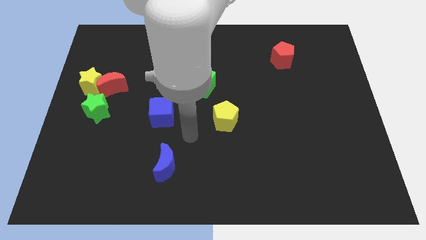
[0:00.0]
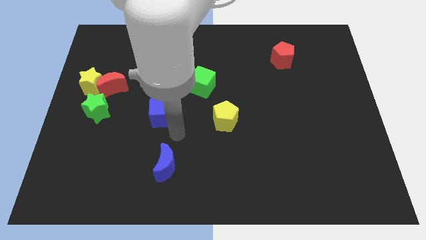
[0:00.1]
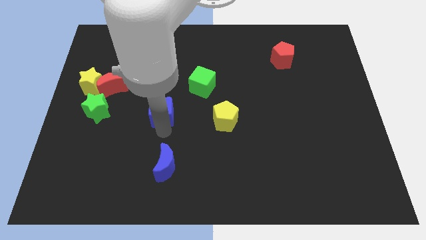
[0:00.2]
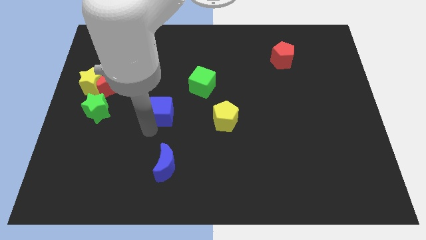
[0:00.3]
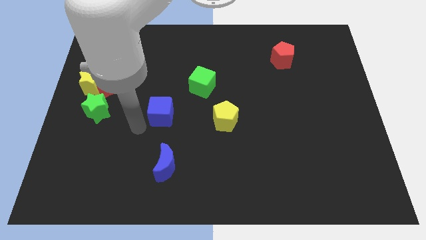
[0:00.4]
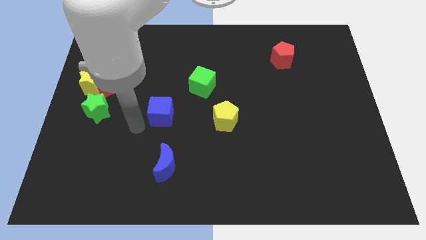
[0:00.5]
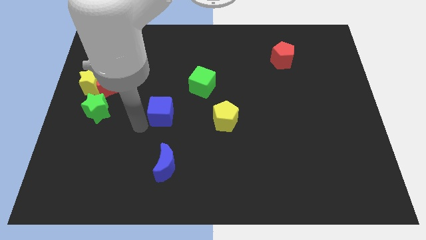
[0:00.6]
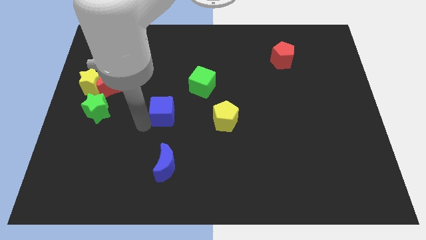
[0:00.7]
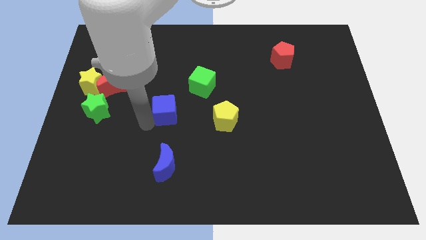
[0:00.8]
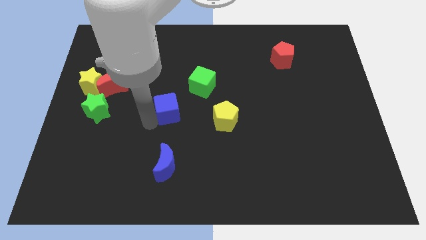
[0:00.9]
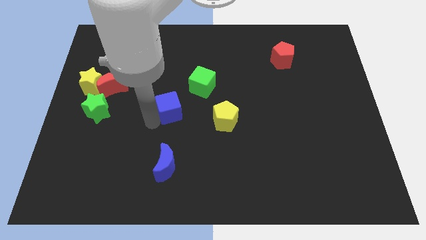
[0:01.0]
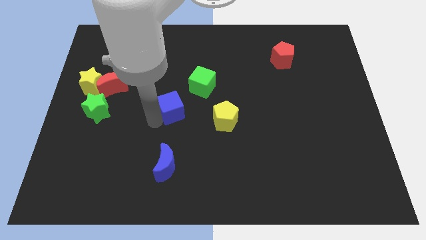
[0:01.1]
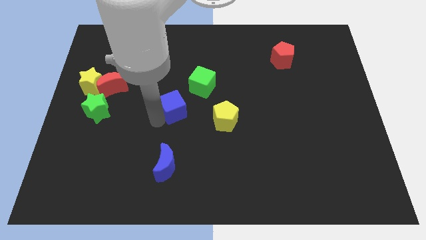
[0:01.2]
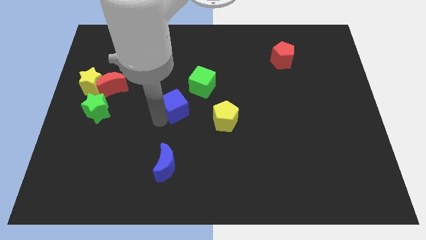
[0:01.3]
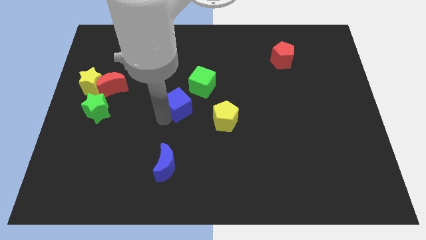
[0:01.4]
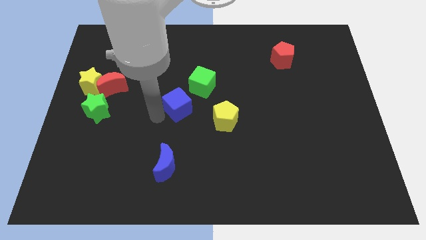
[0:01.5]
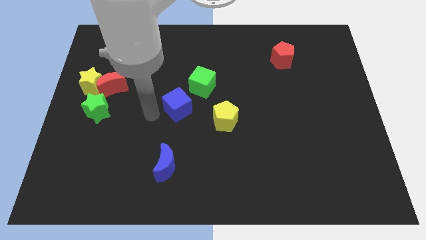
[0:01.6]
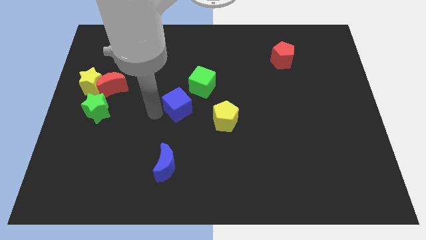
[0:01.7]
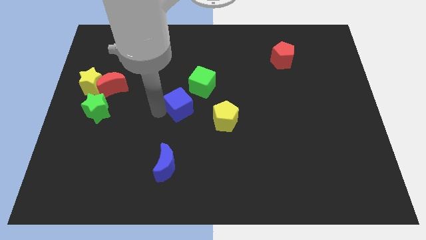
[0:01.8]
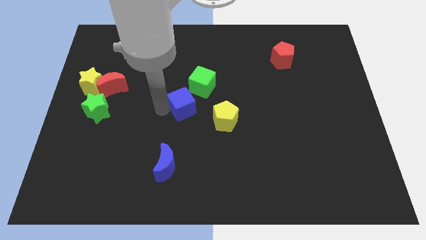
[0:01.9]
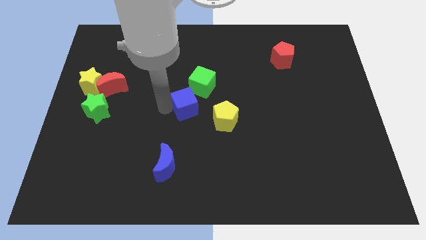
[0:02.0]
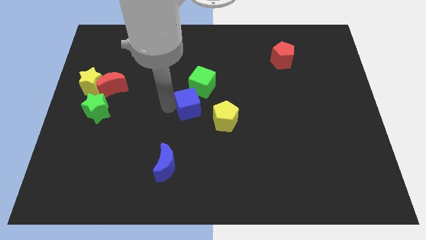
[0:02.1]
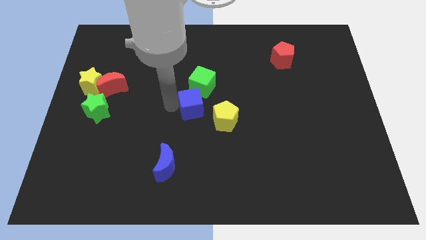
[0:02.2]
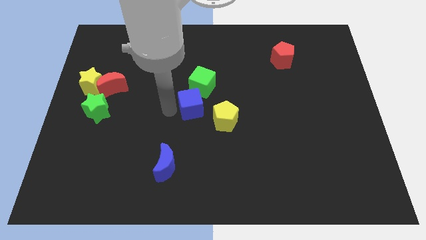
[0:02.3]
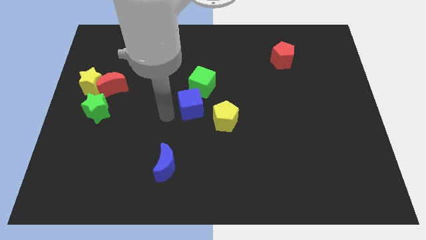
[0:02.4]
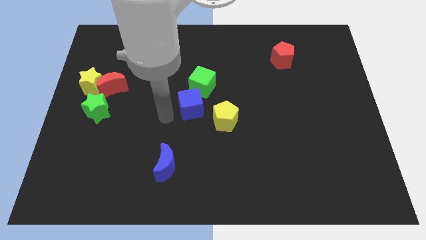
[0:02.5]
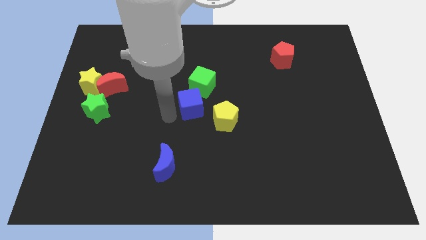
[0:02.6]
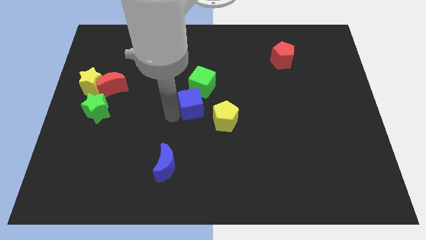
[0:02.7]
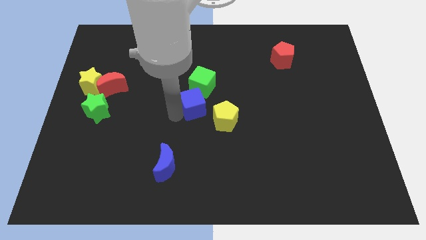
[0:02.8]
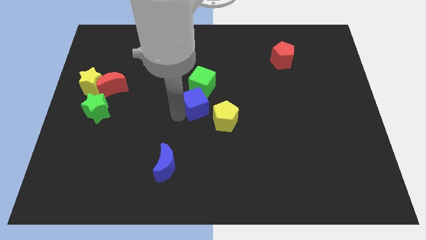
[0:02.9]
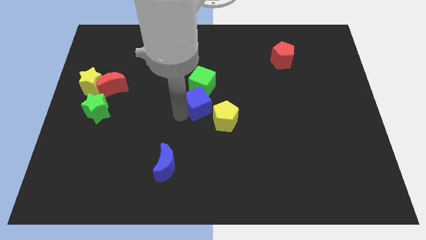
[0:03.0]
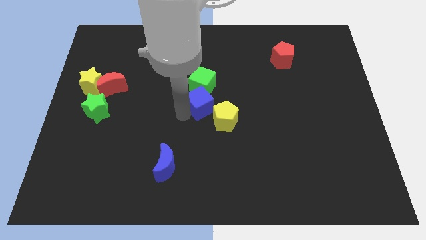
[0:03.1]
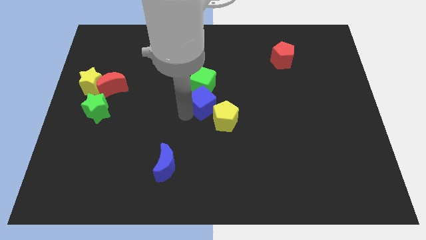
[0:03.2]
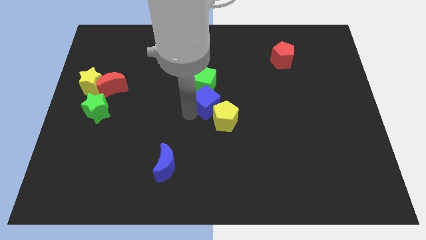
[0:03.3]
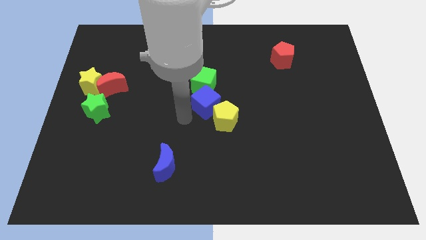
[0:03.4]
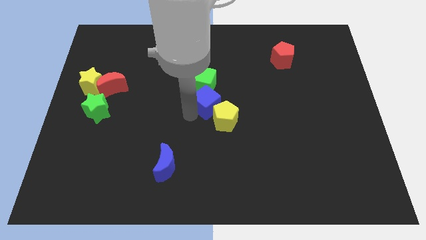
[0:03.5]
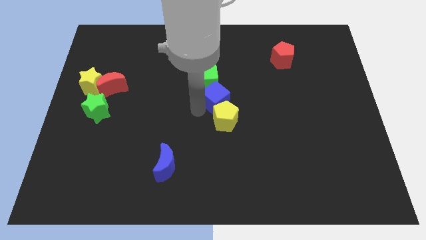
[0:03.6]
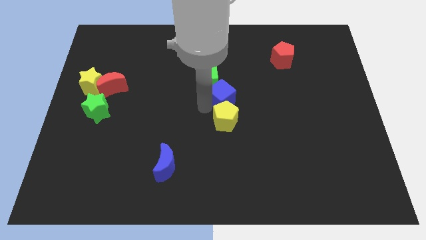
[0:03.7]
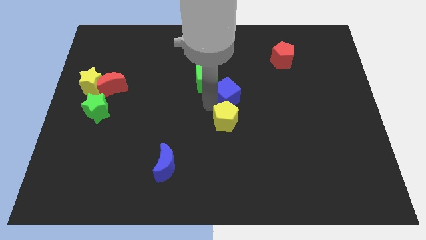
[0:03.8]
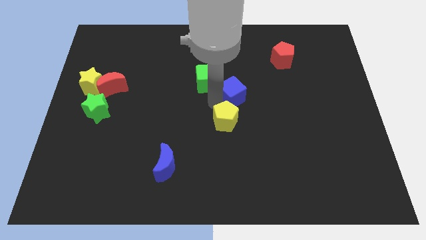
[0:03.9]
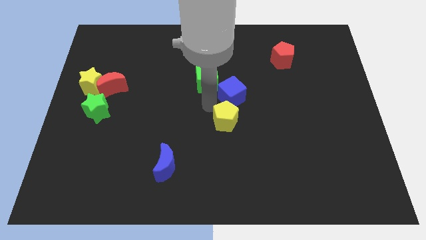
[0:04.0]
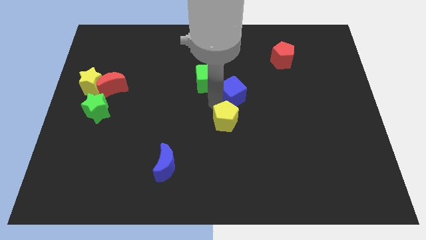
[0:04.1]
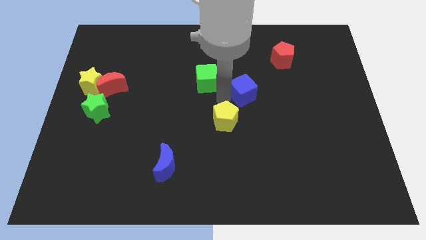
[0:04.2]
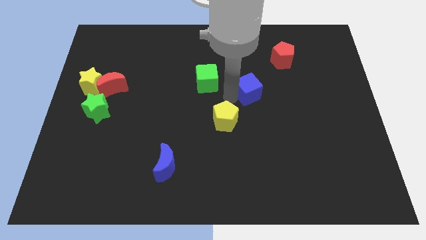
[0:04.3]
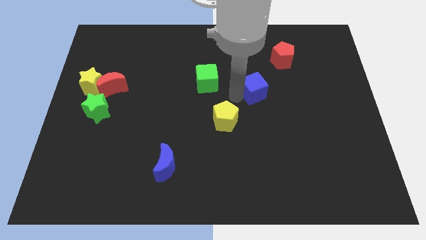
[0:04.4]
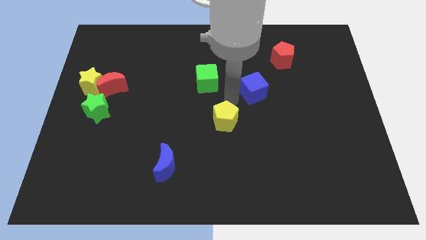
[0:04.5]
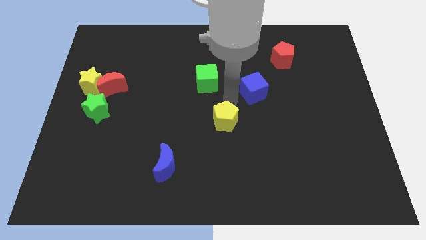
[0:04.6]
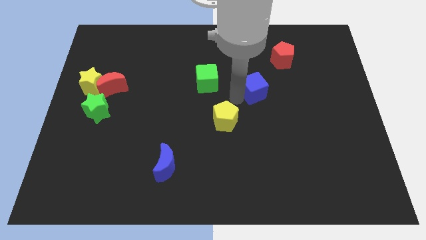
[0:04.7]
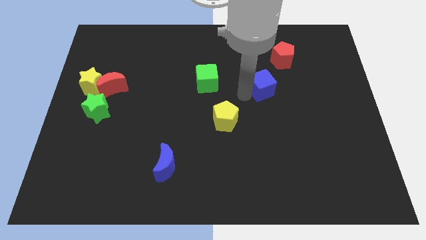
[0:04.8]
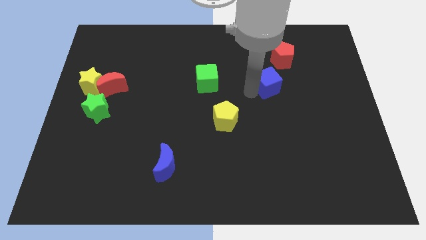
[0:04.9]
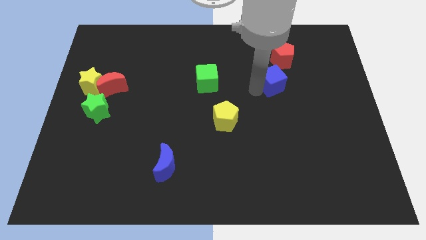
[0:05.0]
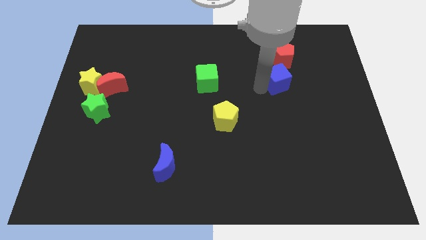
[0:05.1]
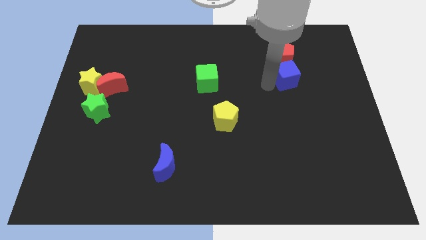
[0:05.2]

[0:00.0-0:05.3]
slide the blue cube diagonally down and to the right of the red pentagon

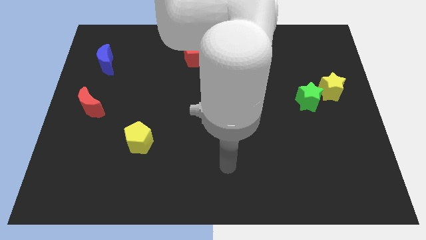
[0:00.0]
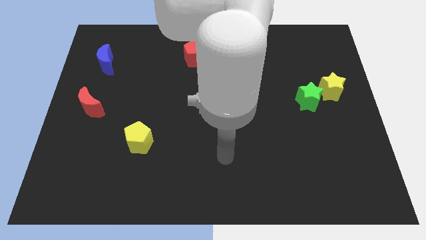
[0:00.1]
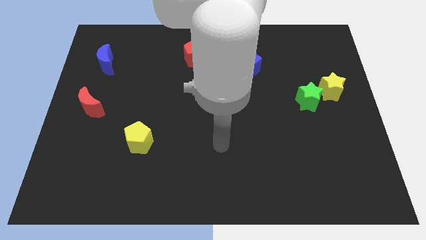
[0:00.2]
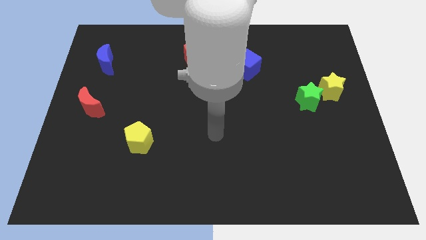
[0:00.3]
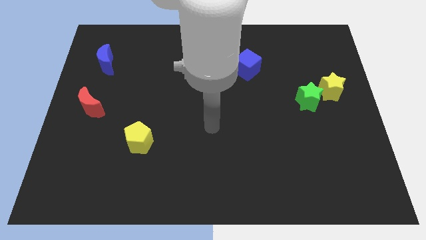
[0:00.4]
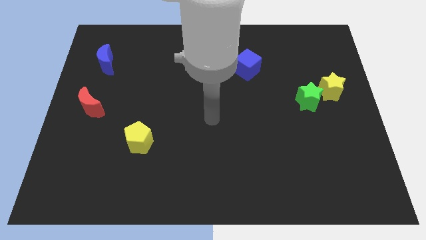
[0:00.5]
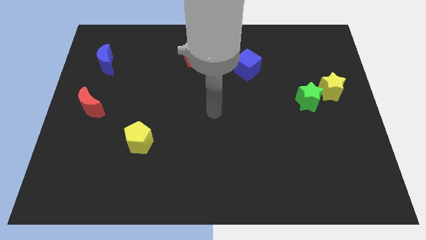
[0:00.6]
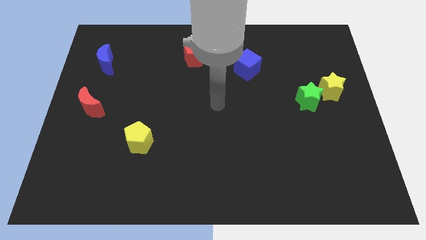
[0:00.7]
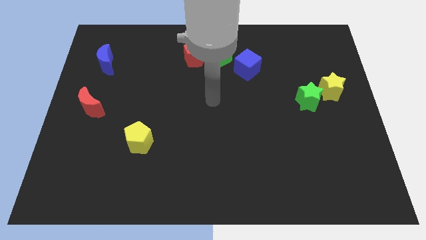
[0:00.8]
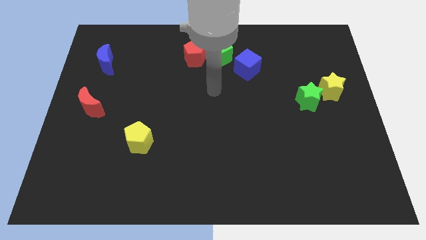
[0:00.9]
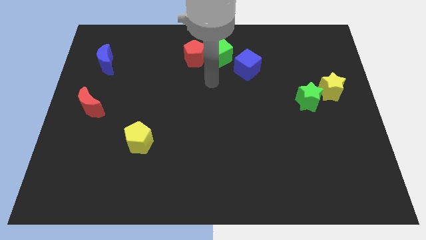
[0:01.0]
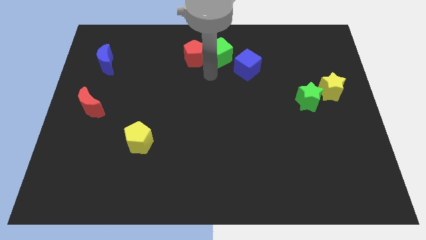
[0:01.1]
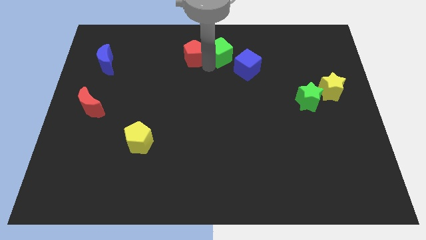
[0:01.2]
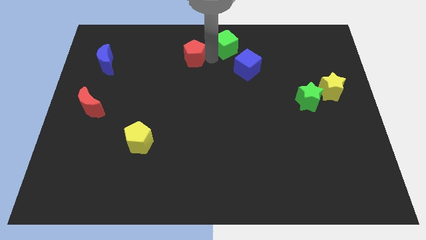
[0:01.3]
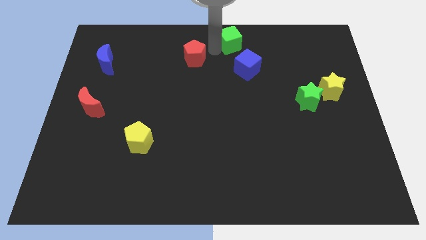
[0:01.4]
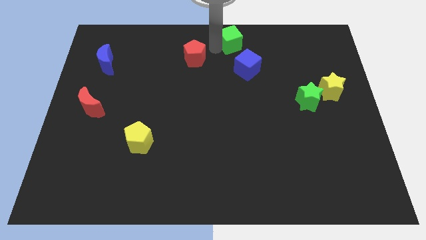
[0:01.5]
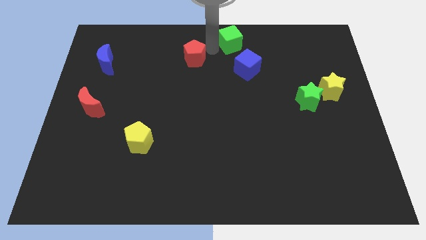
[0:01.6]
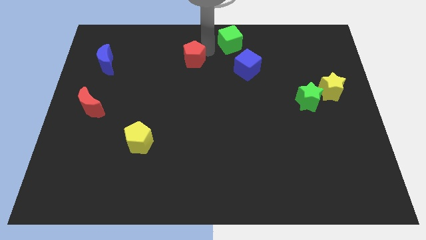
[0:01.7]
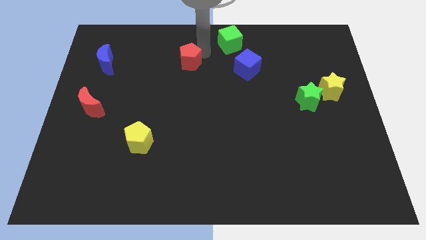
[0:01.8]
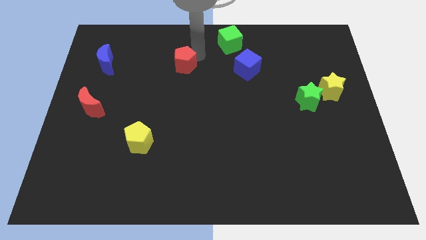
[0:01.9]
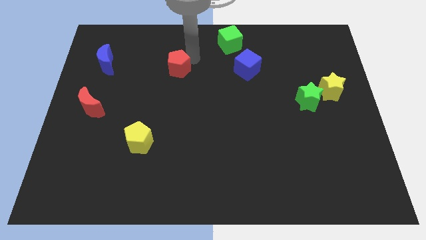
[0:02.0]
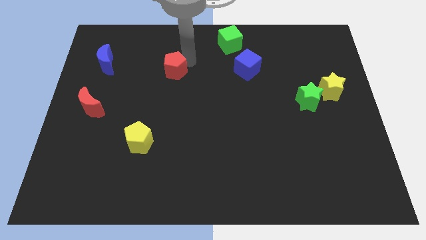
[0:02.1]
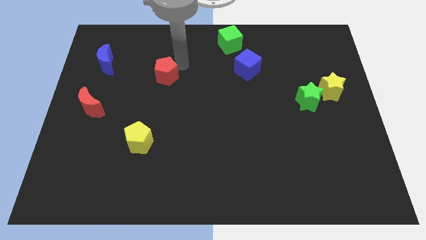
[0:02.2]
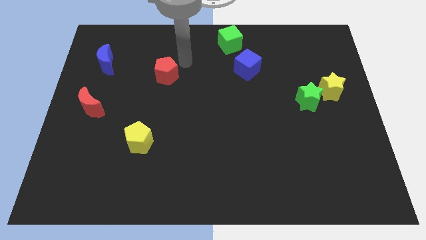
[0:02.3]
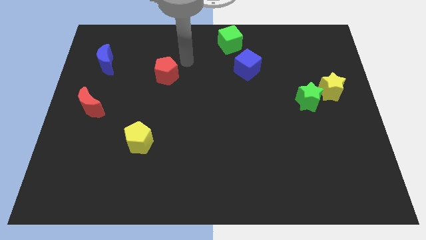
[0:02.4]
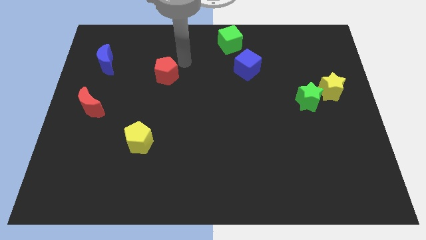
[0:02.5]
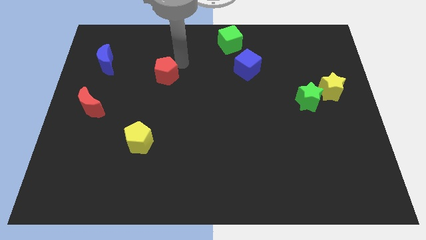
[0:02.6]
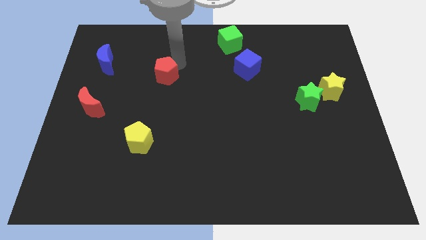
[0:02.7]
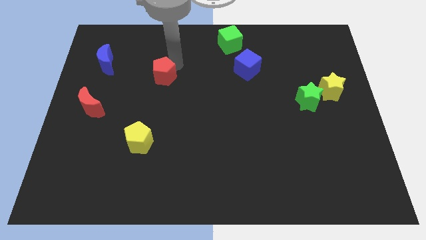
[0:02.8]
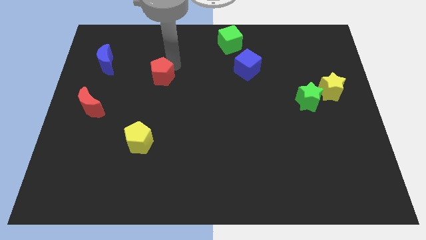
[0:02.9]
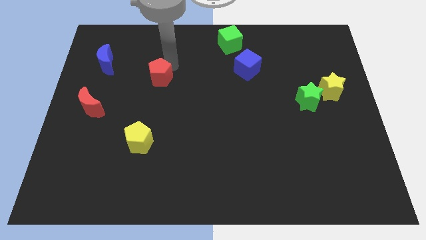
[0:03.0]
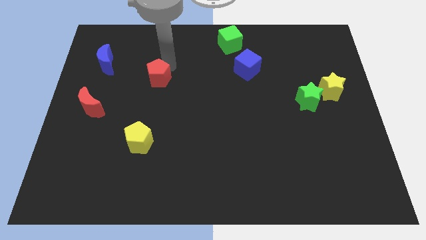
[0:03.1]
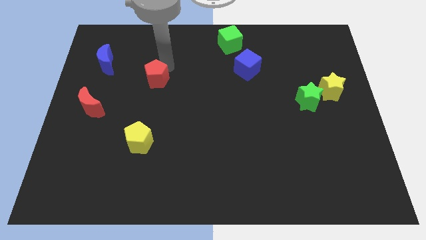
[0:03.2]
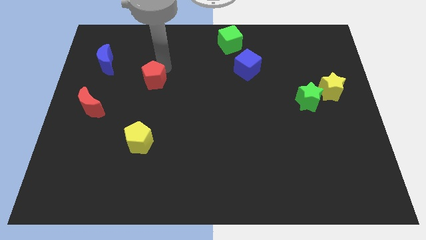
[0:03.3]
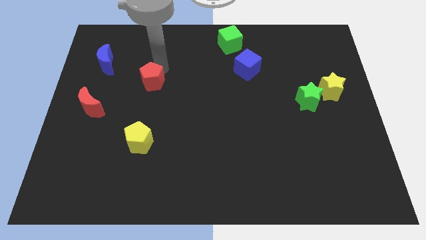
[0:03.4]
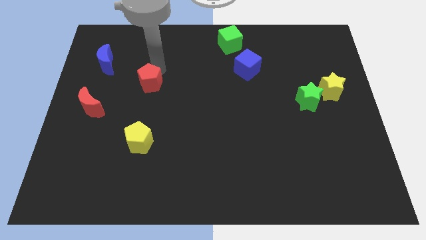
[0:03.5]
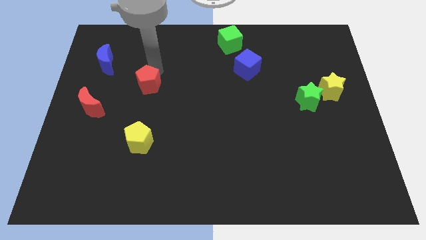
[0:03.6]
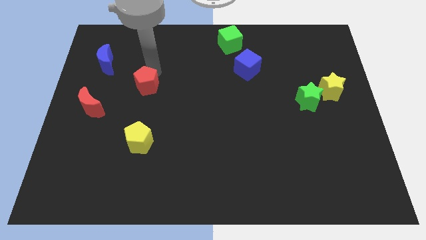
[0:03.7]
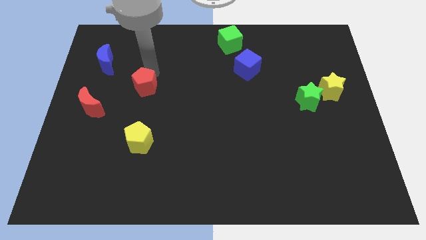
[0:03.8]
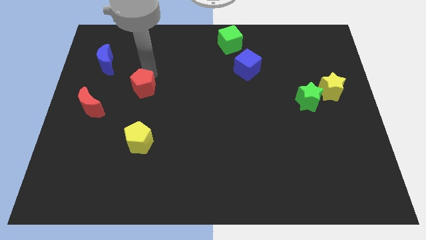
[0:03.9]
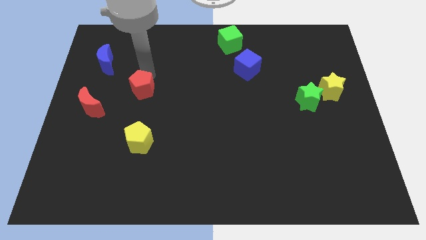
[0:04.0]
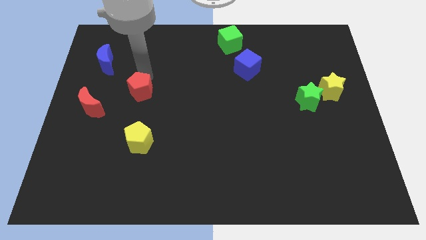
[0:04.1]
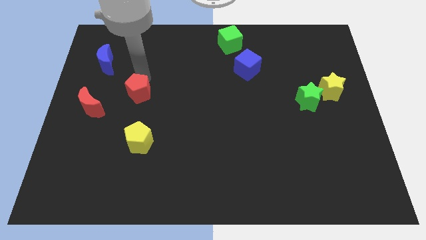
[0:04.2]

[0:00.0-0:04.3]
move the red pentagon right of the red moon
